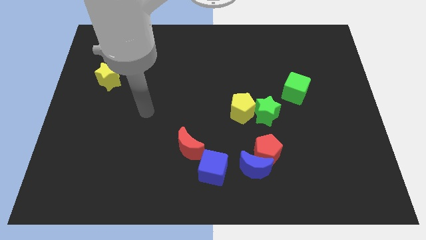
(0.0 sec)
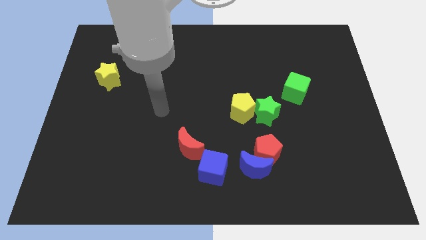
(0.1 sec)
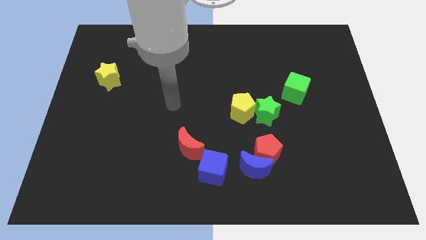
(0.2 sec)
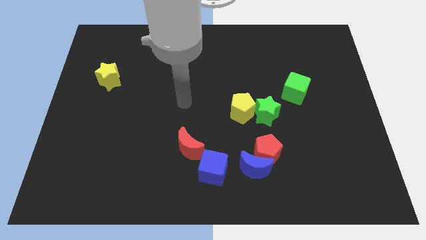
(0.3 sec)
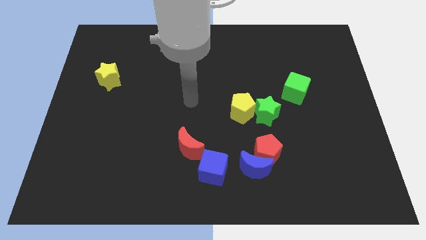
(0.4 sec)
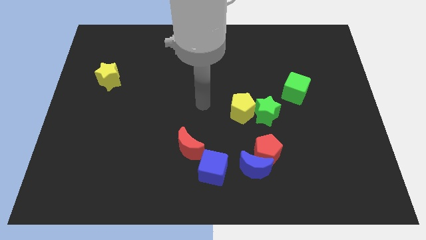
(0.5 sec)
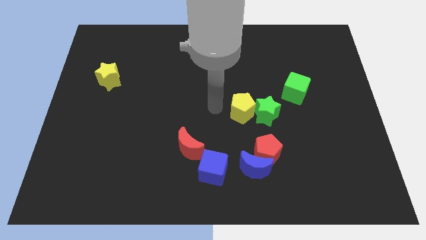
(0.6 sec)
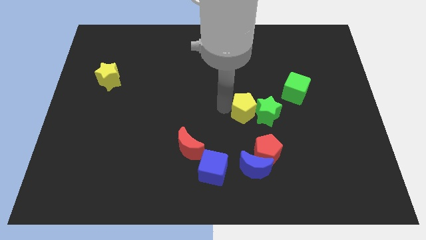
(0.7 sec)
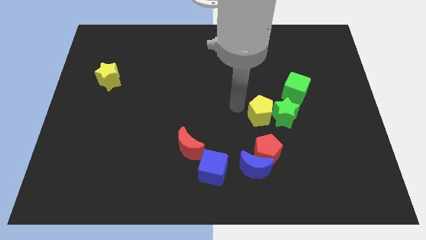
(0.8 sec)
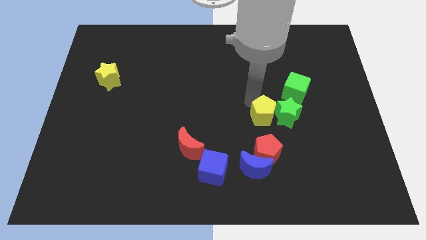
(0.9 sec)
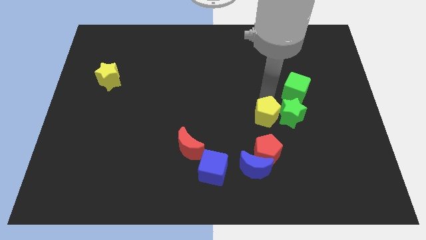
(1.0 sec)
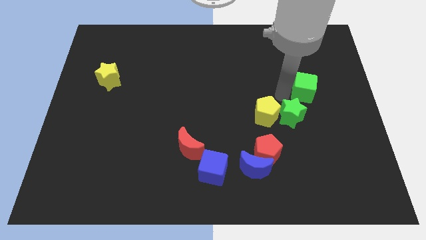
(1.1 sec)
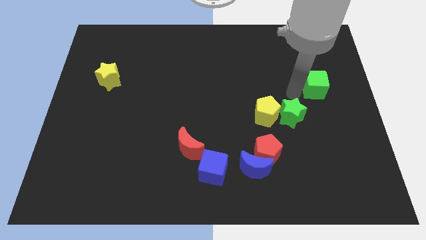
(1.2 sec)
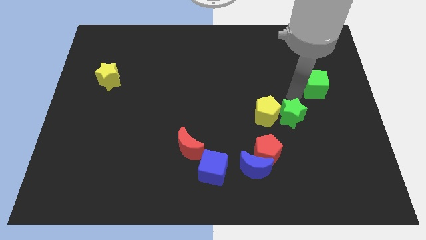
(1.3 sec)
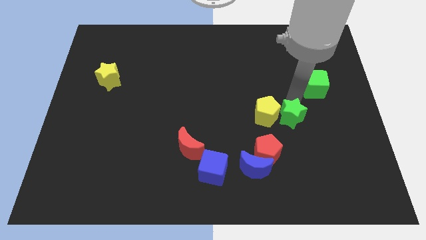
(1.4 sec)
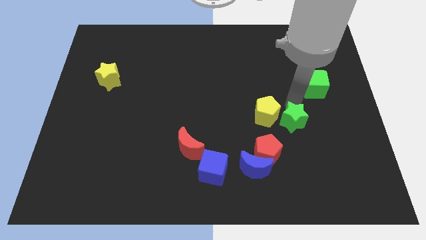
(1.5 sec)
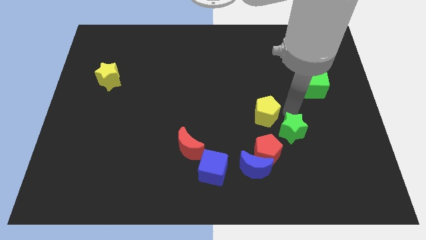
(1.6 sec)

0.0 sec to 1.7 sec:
slightly slide the green star downwards and right

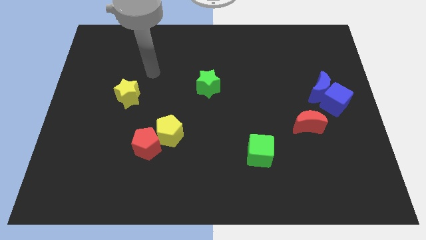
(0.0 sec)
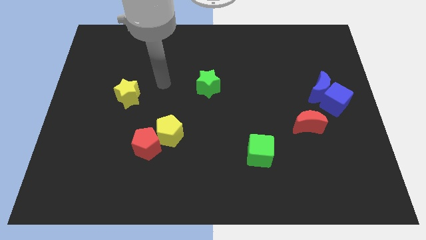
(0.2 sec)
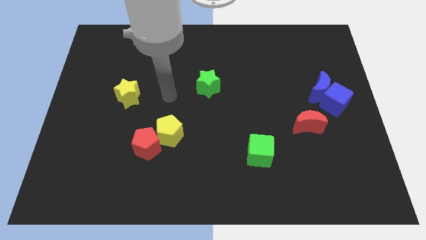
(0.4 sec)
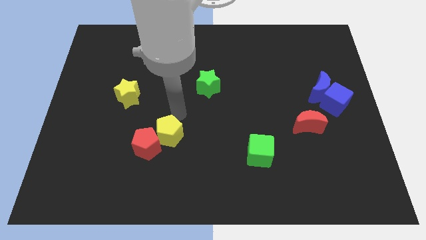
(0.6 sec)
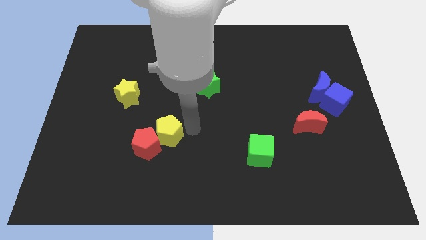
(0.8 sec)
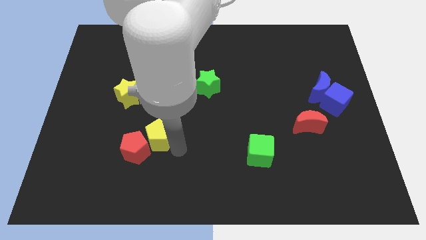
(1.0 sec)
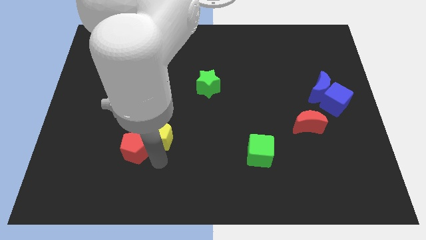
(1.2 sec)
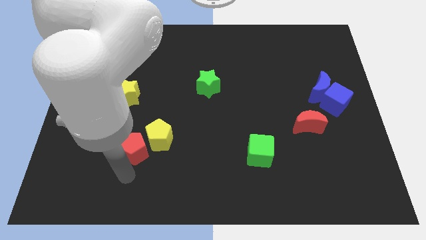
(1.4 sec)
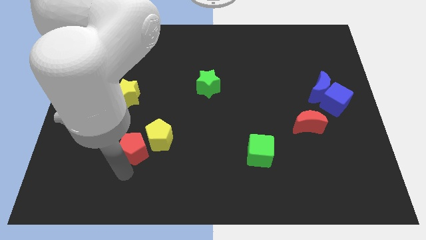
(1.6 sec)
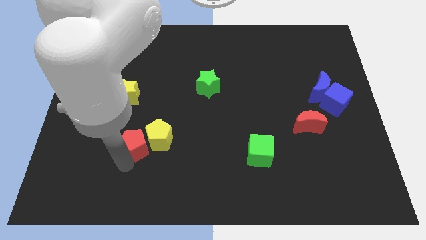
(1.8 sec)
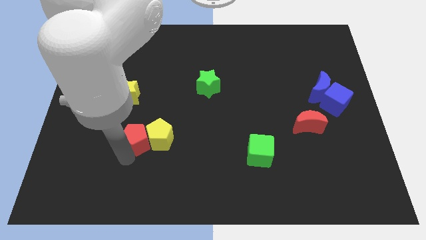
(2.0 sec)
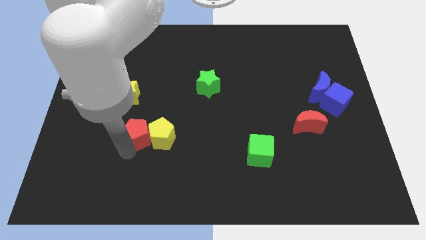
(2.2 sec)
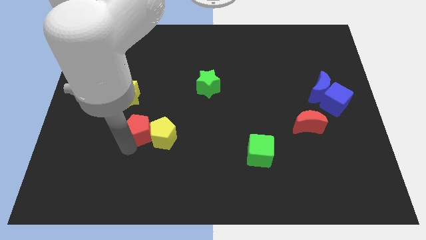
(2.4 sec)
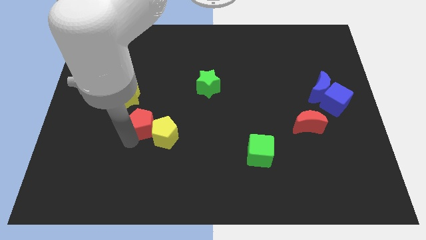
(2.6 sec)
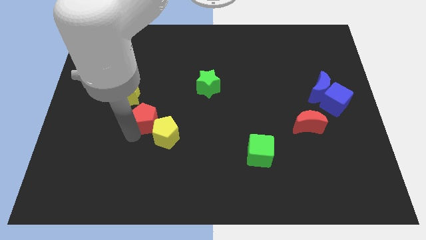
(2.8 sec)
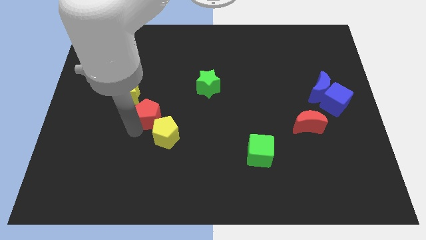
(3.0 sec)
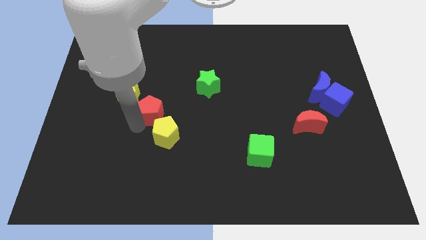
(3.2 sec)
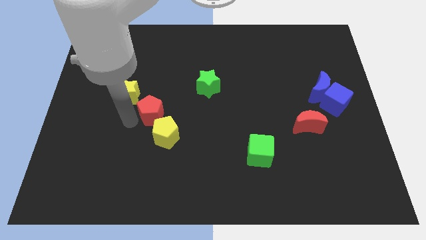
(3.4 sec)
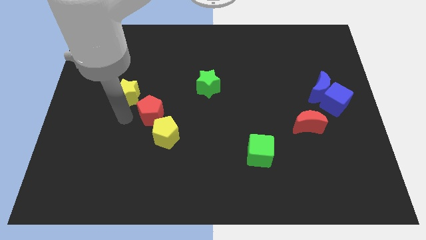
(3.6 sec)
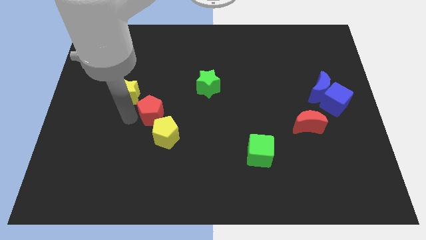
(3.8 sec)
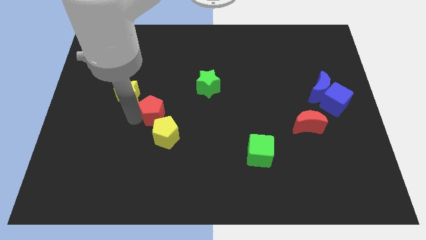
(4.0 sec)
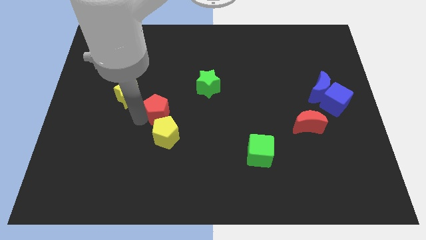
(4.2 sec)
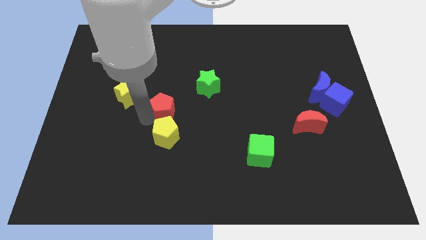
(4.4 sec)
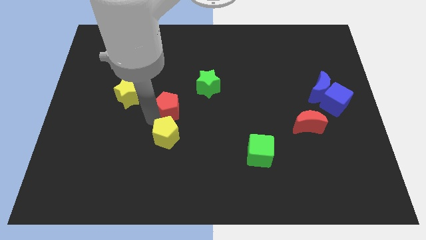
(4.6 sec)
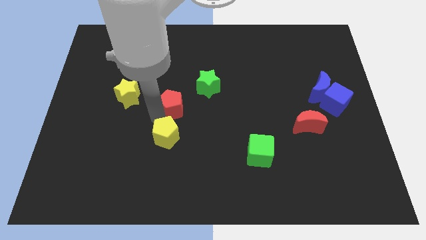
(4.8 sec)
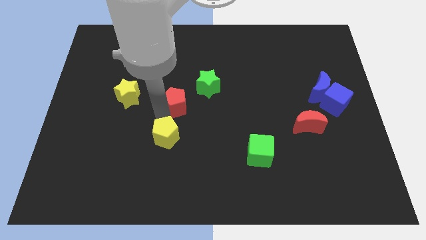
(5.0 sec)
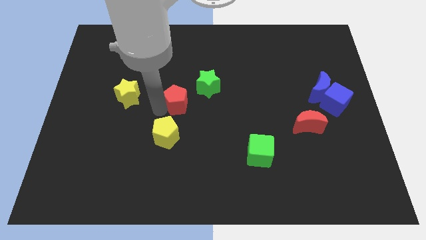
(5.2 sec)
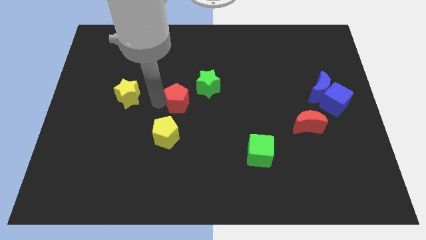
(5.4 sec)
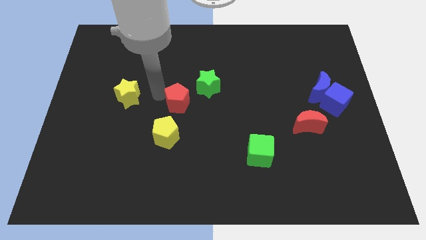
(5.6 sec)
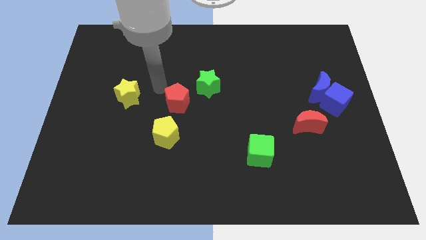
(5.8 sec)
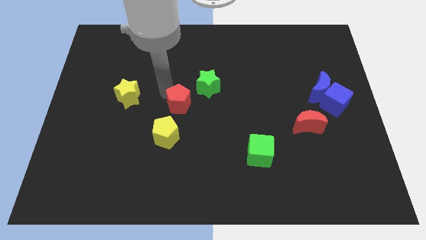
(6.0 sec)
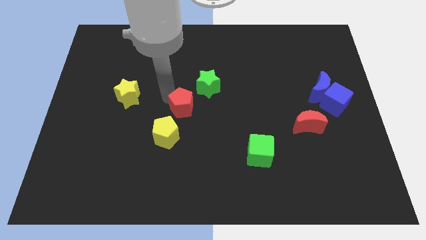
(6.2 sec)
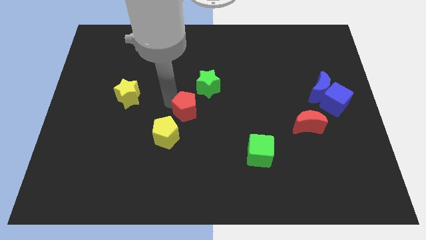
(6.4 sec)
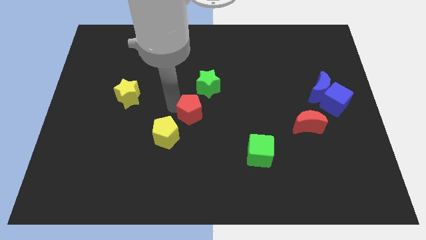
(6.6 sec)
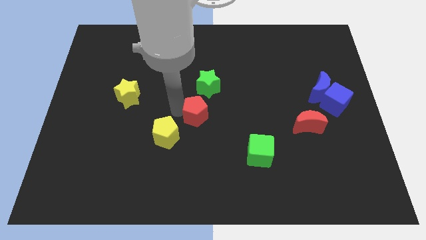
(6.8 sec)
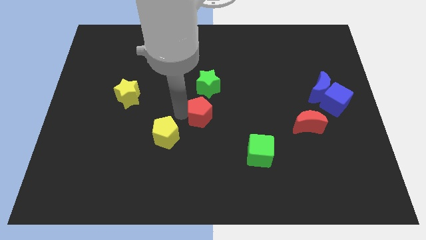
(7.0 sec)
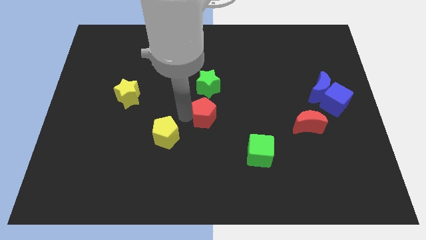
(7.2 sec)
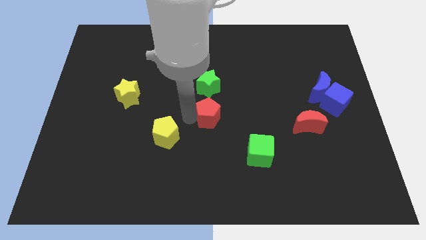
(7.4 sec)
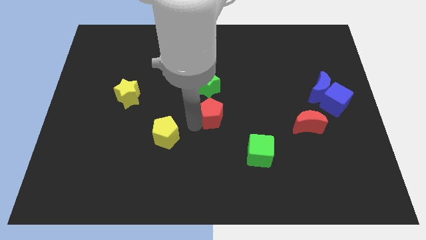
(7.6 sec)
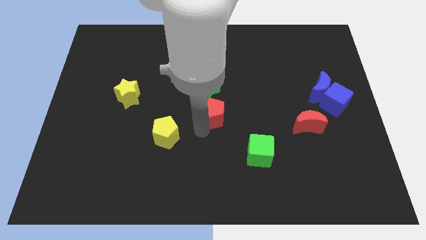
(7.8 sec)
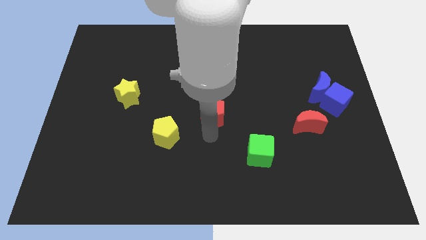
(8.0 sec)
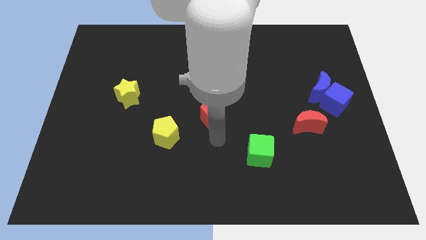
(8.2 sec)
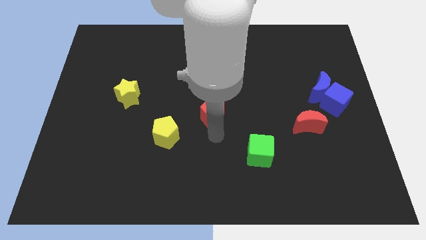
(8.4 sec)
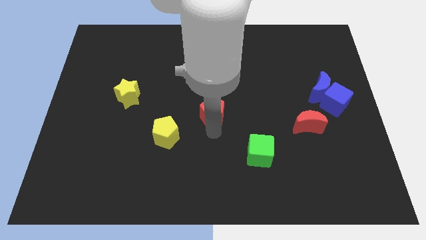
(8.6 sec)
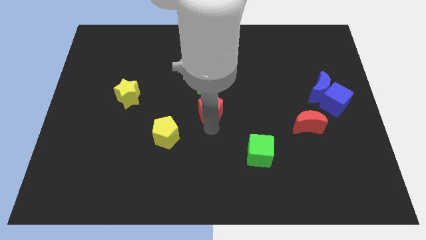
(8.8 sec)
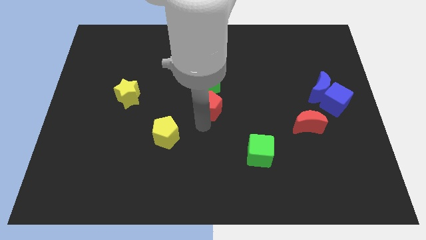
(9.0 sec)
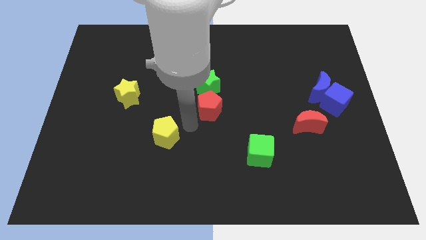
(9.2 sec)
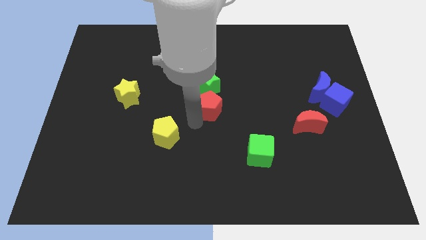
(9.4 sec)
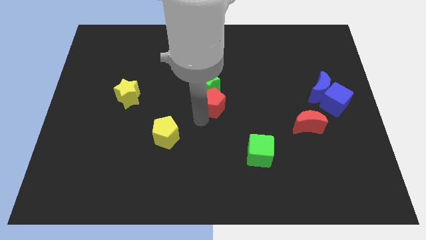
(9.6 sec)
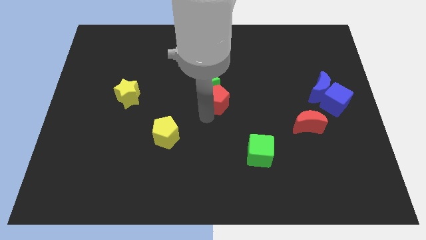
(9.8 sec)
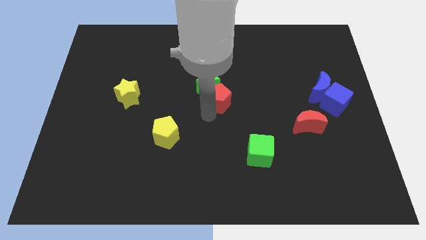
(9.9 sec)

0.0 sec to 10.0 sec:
move the red pentagon up and then to the right

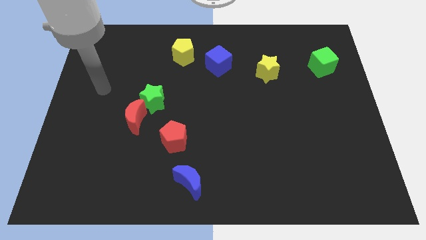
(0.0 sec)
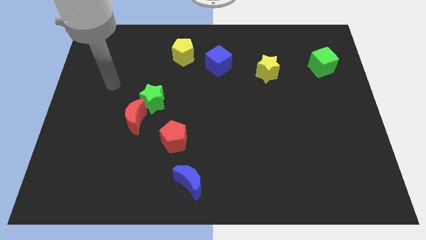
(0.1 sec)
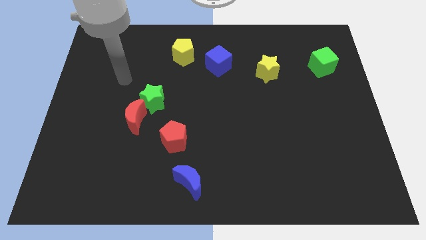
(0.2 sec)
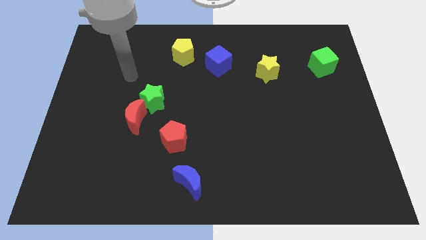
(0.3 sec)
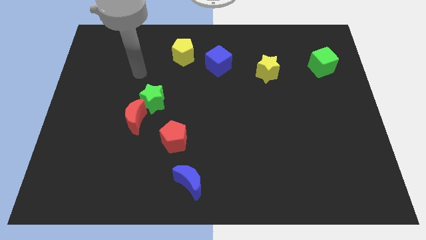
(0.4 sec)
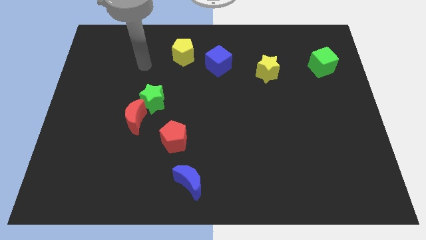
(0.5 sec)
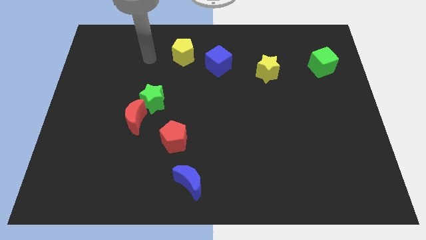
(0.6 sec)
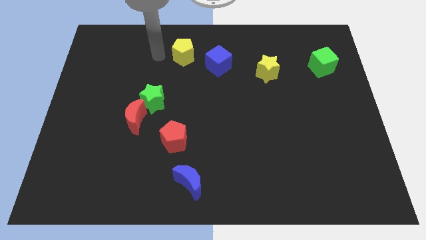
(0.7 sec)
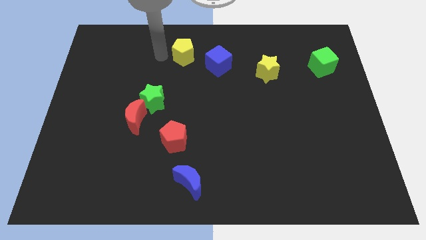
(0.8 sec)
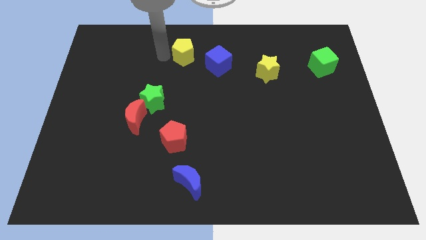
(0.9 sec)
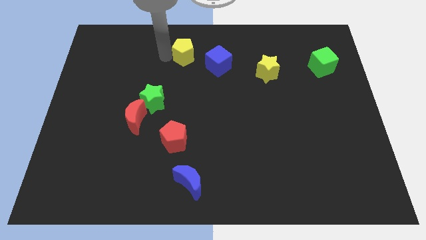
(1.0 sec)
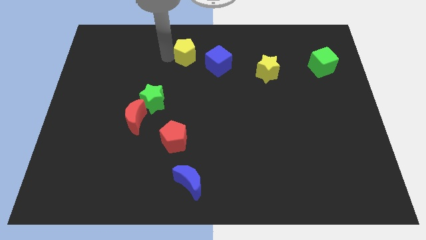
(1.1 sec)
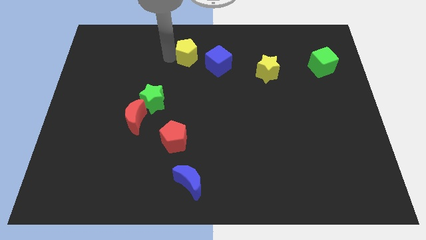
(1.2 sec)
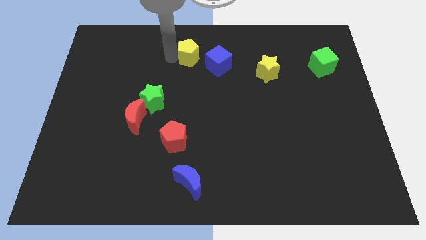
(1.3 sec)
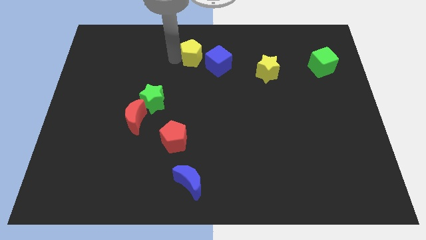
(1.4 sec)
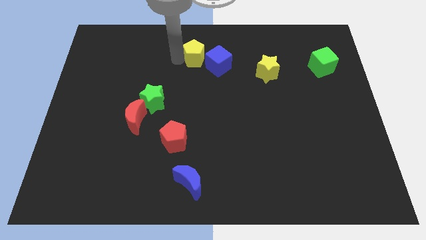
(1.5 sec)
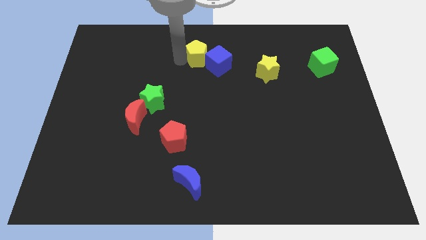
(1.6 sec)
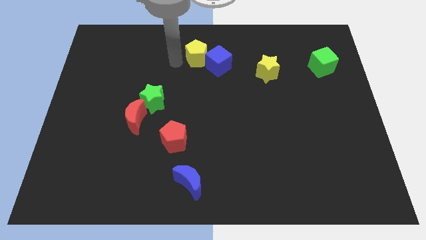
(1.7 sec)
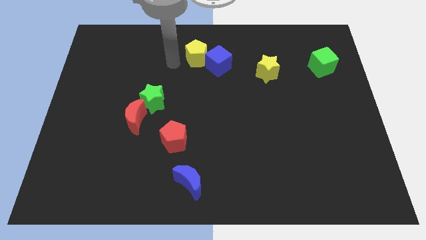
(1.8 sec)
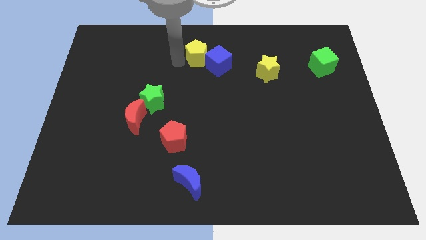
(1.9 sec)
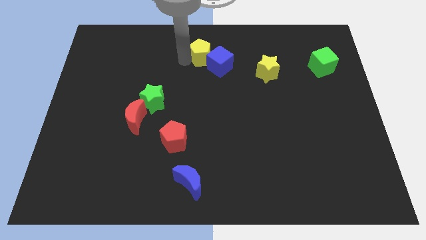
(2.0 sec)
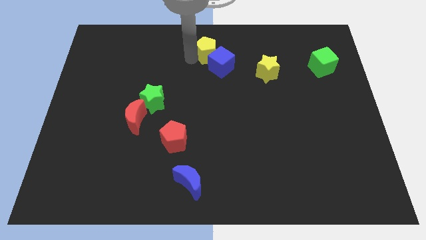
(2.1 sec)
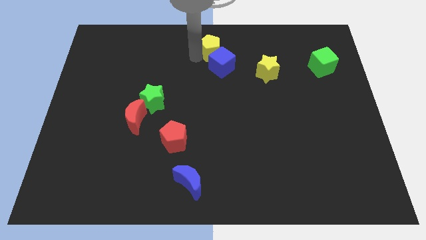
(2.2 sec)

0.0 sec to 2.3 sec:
move the yellow pentagon to the right slightly
